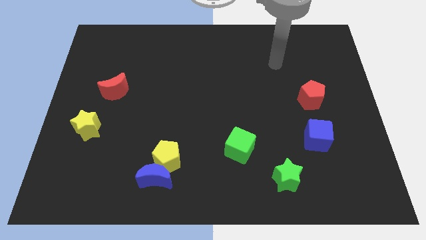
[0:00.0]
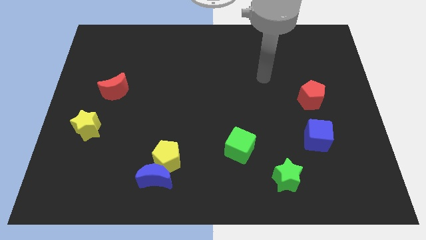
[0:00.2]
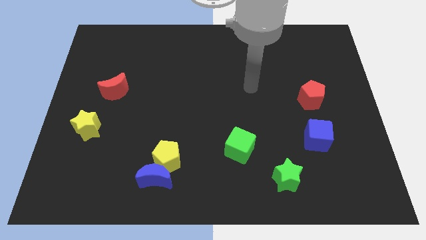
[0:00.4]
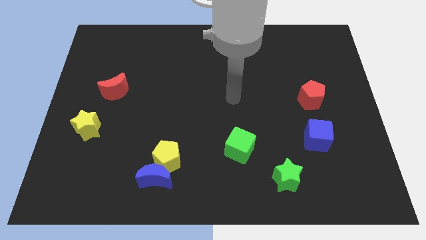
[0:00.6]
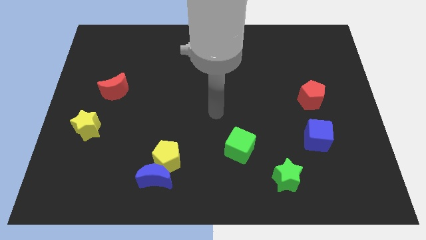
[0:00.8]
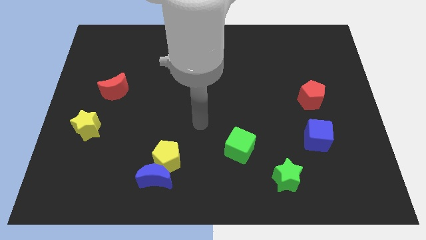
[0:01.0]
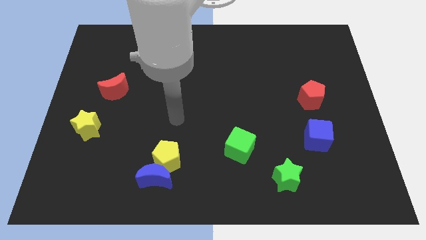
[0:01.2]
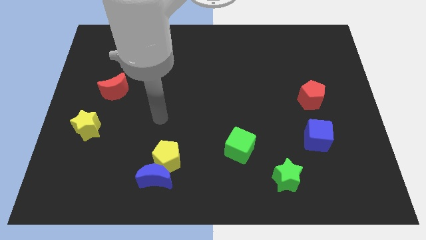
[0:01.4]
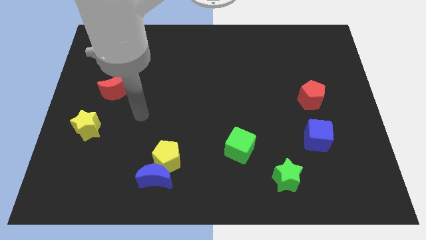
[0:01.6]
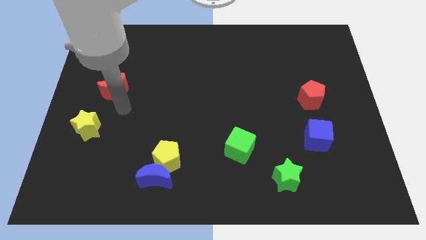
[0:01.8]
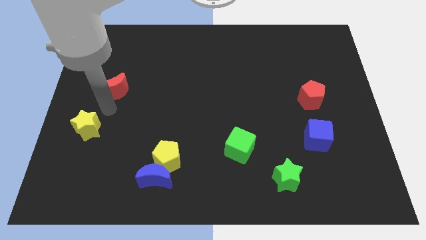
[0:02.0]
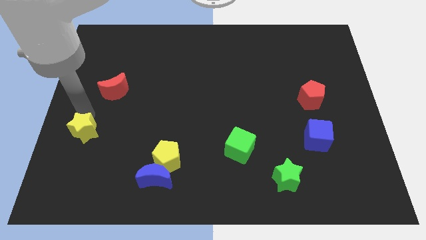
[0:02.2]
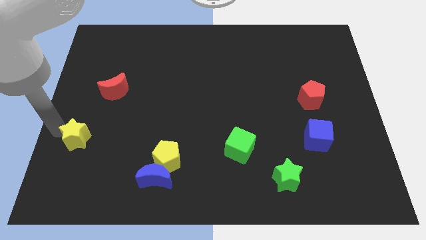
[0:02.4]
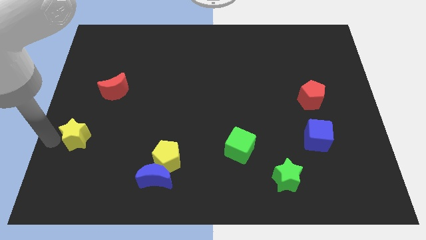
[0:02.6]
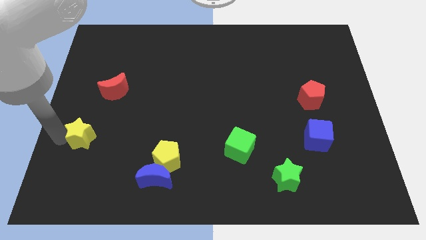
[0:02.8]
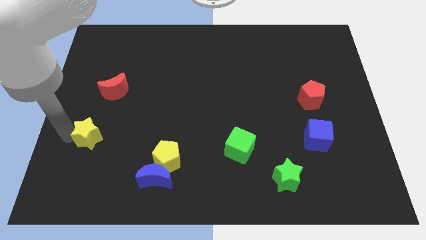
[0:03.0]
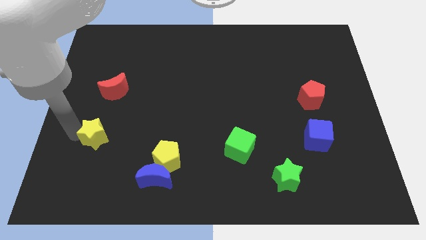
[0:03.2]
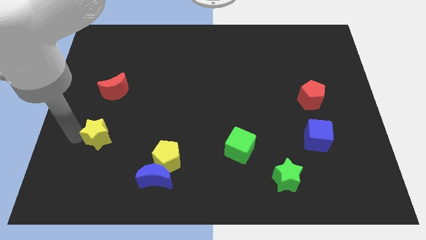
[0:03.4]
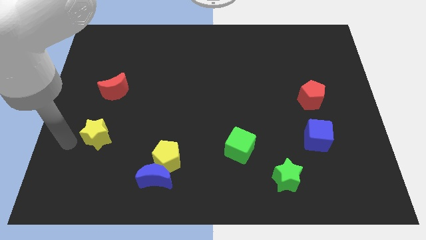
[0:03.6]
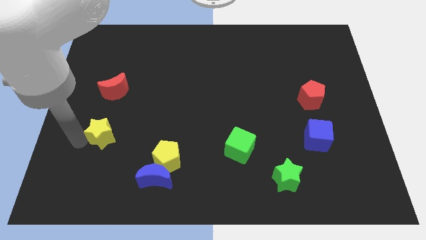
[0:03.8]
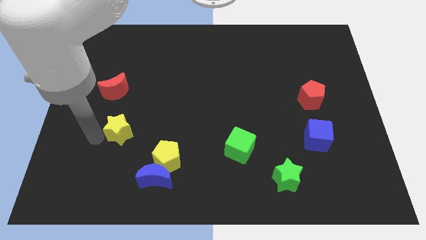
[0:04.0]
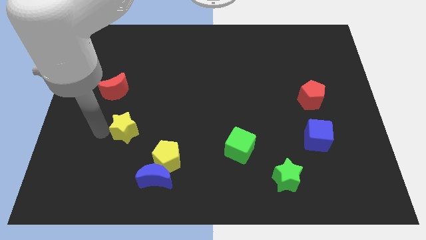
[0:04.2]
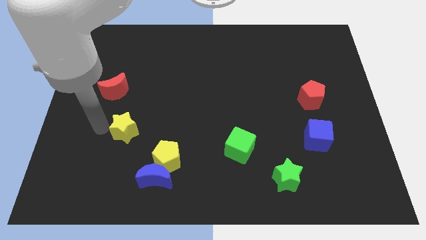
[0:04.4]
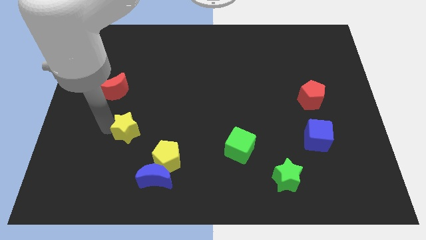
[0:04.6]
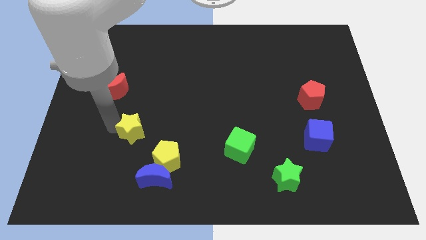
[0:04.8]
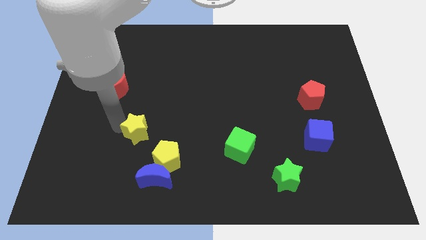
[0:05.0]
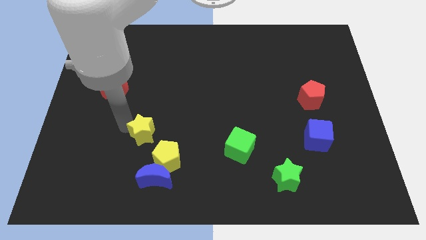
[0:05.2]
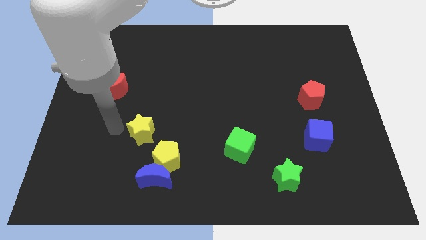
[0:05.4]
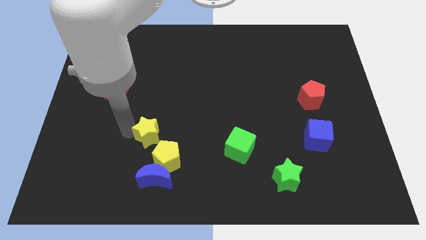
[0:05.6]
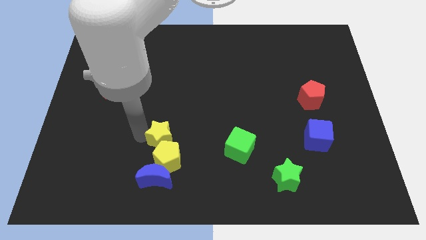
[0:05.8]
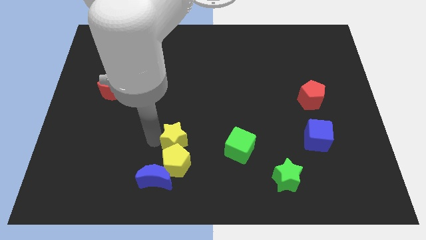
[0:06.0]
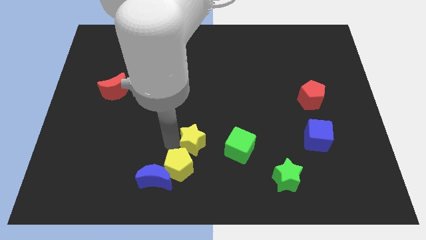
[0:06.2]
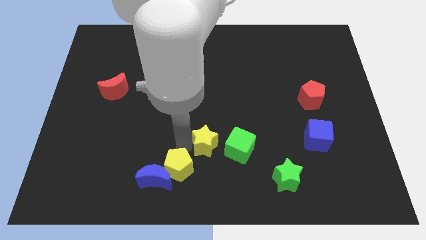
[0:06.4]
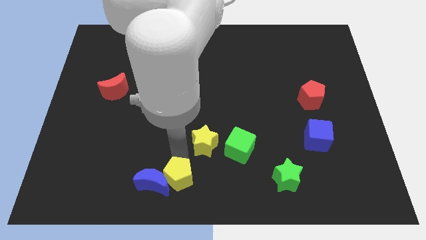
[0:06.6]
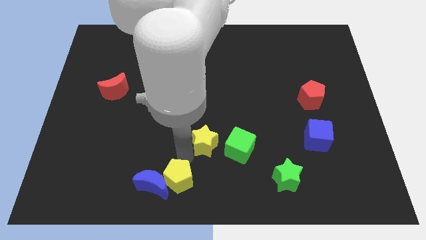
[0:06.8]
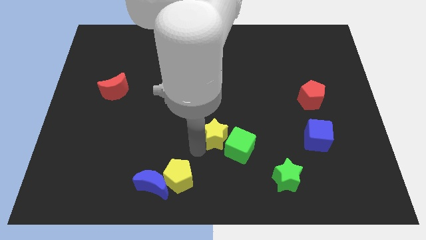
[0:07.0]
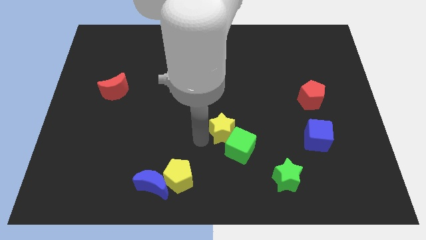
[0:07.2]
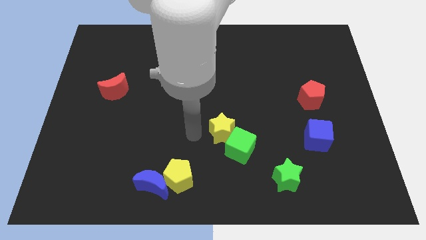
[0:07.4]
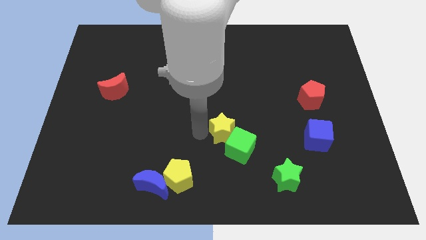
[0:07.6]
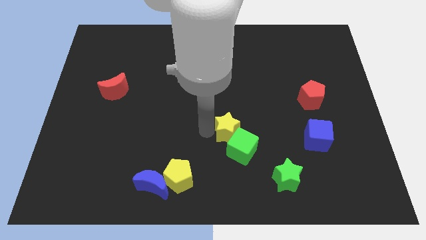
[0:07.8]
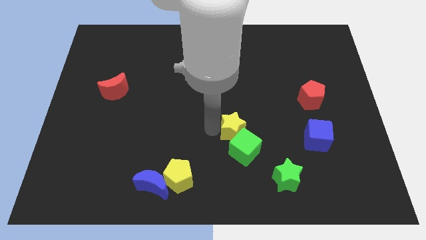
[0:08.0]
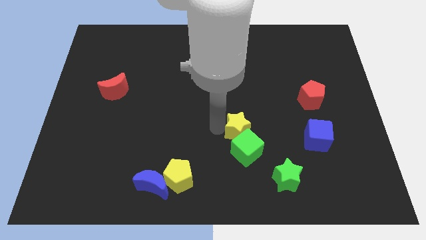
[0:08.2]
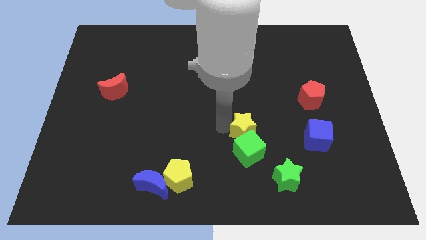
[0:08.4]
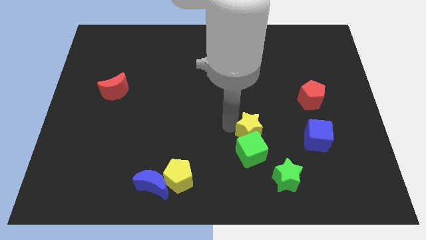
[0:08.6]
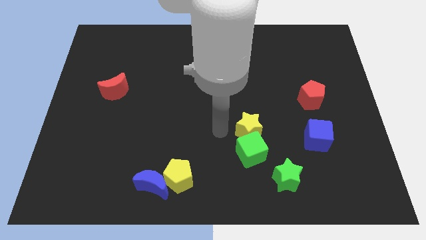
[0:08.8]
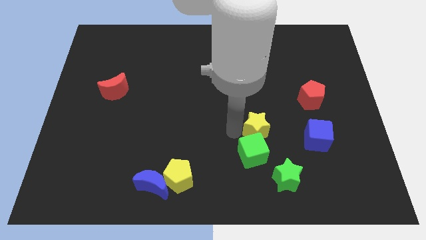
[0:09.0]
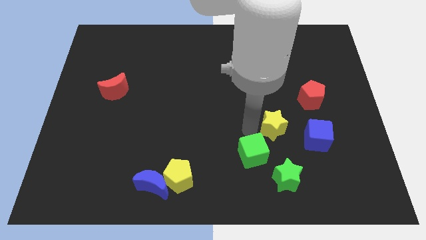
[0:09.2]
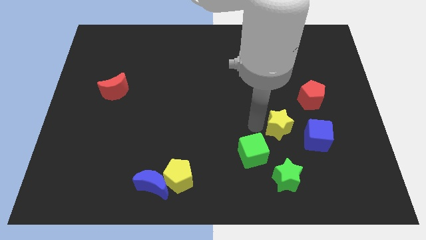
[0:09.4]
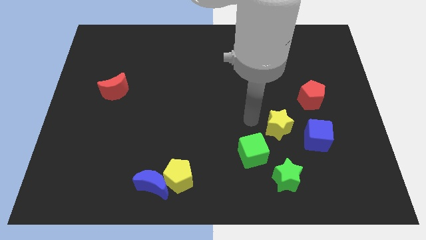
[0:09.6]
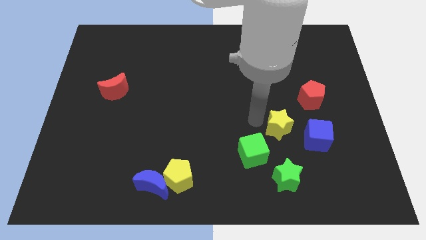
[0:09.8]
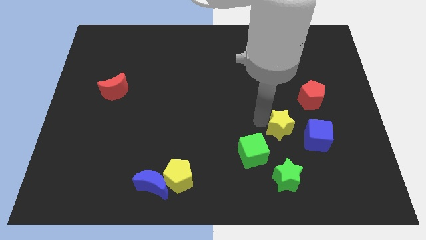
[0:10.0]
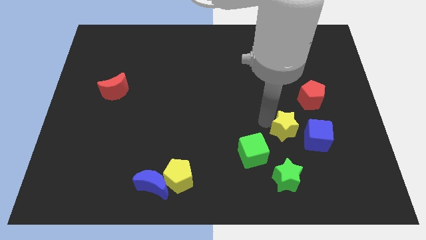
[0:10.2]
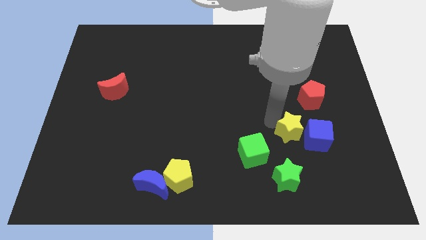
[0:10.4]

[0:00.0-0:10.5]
put the yellow star to the blue cube

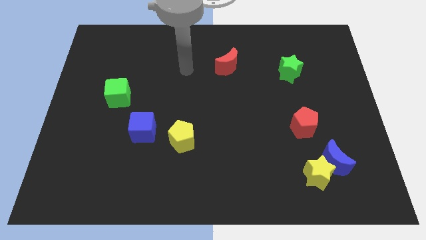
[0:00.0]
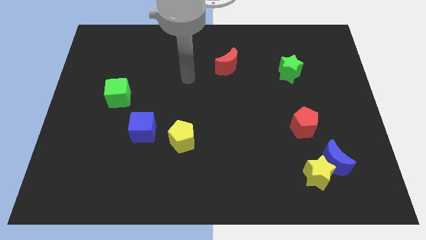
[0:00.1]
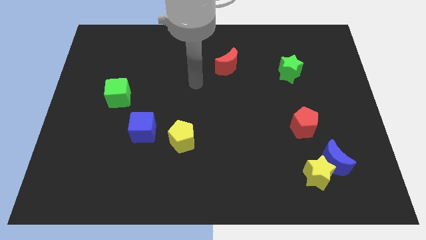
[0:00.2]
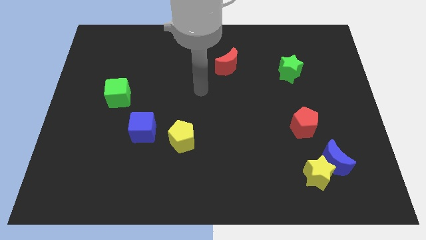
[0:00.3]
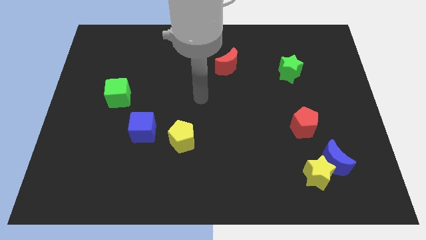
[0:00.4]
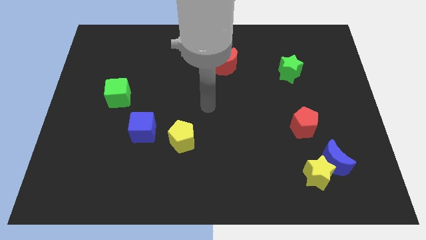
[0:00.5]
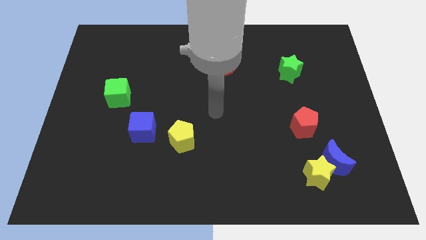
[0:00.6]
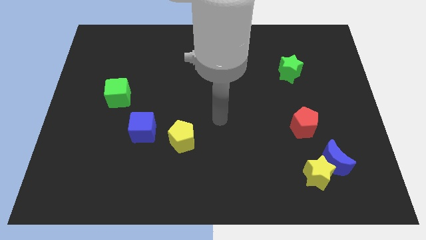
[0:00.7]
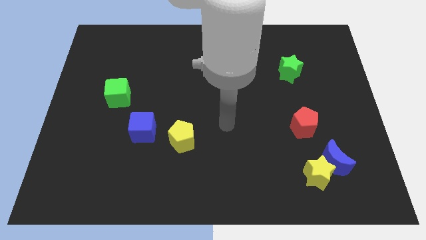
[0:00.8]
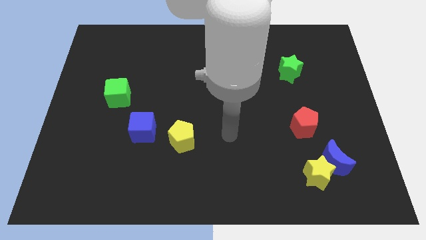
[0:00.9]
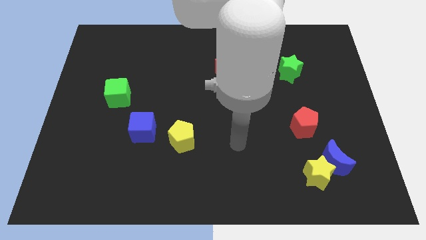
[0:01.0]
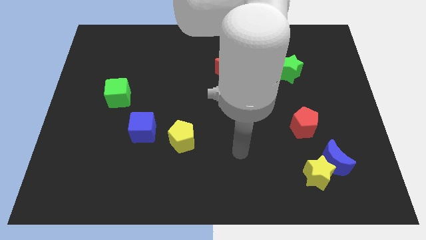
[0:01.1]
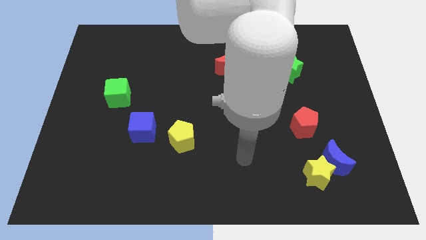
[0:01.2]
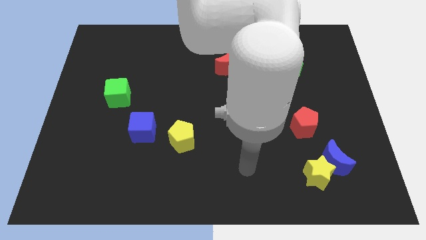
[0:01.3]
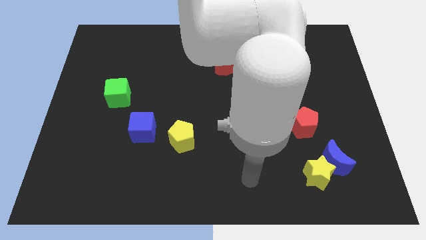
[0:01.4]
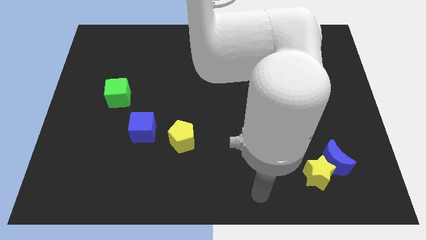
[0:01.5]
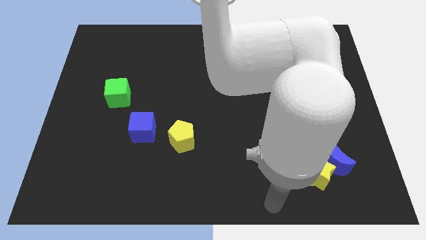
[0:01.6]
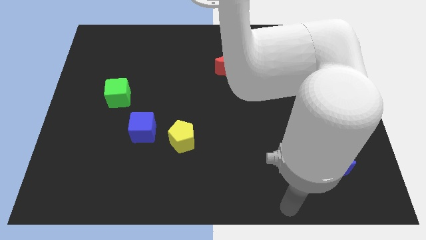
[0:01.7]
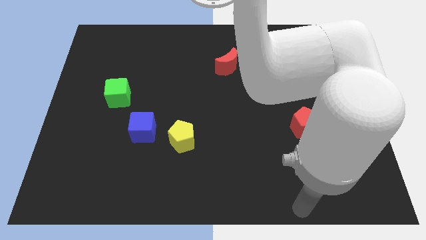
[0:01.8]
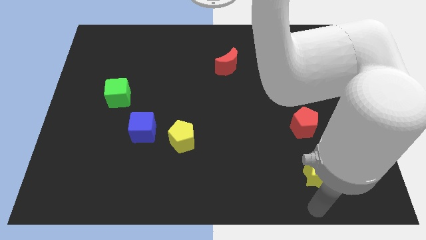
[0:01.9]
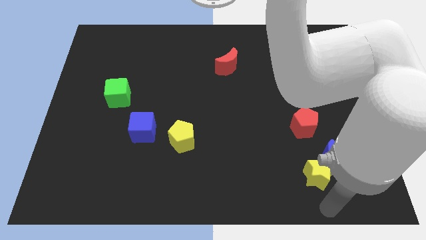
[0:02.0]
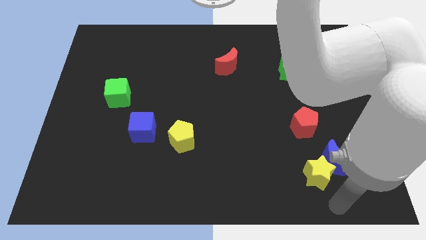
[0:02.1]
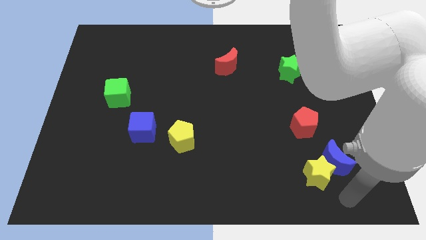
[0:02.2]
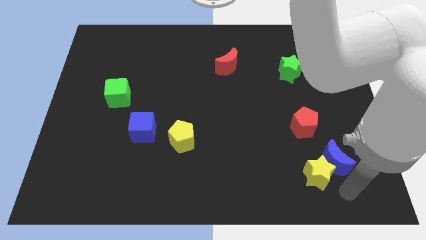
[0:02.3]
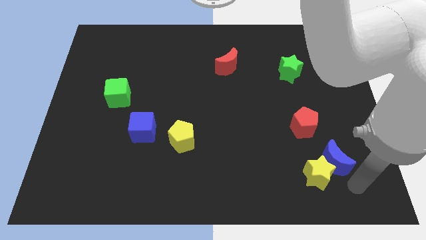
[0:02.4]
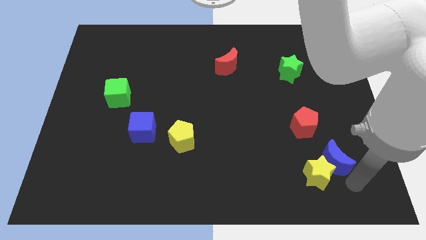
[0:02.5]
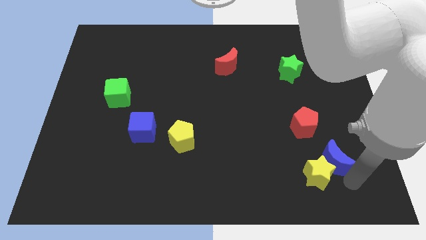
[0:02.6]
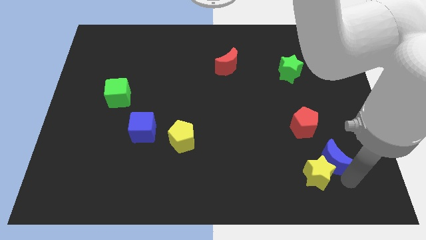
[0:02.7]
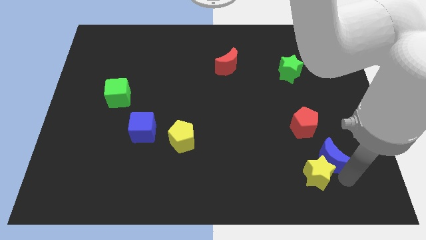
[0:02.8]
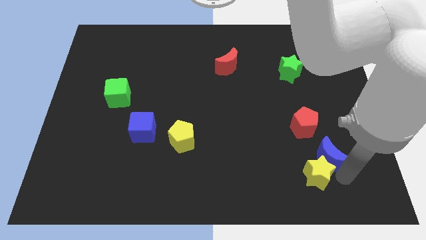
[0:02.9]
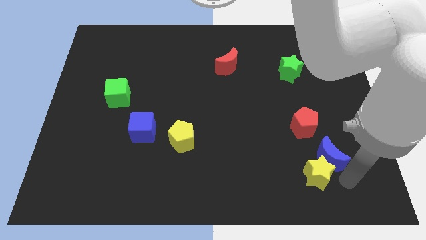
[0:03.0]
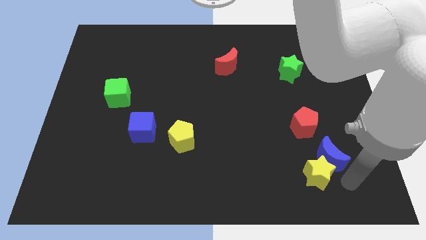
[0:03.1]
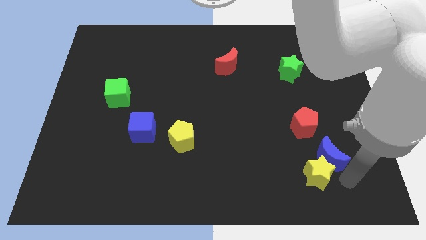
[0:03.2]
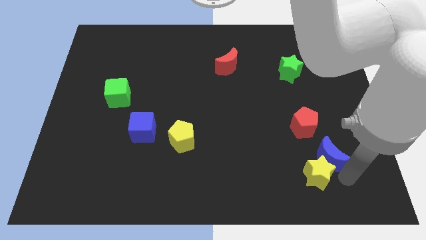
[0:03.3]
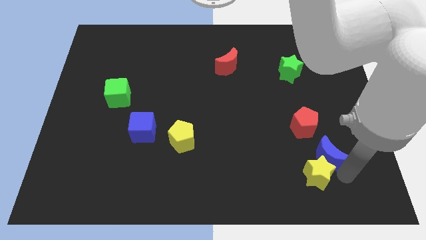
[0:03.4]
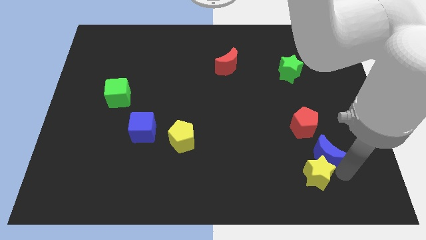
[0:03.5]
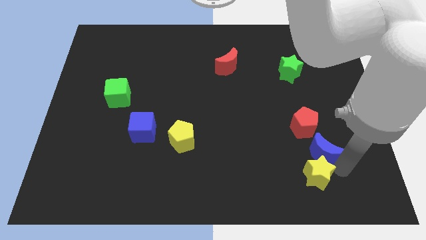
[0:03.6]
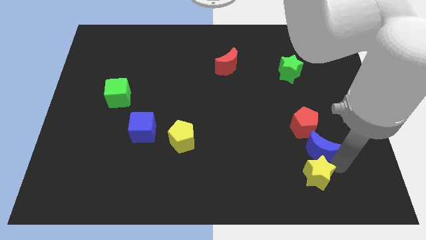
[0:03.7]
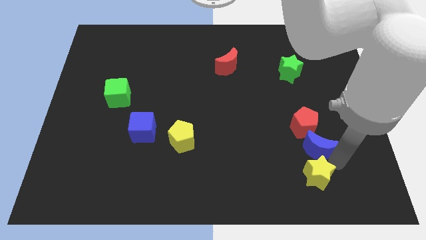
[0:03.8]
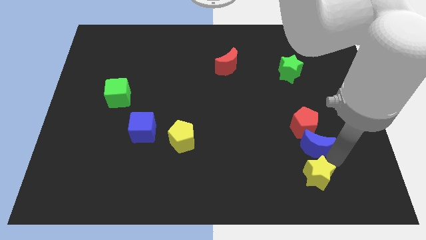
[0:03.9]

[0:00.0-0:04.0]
push the blue moon towards the red pentagon
